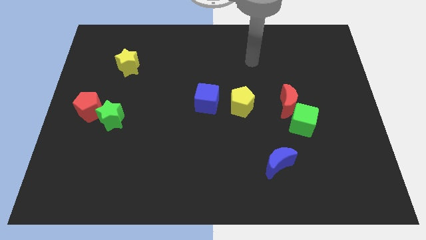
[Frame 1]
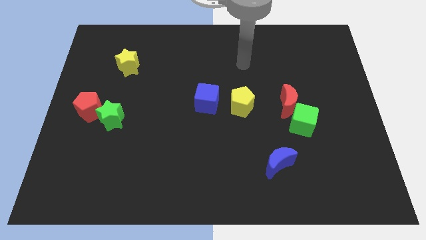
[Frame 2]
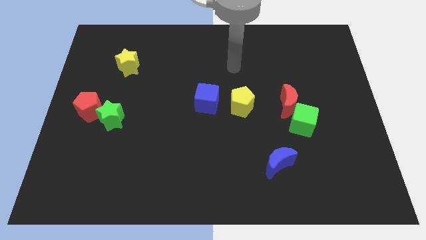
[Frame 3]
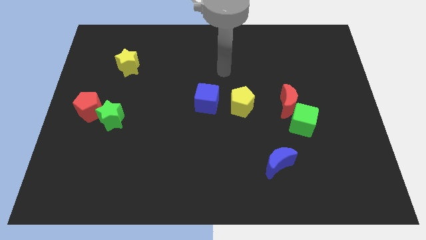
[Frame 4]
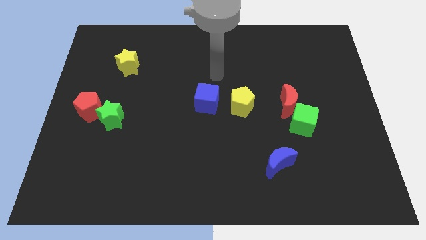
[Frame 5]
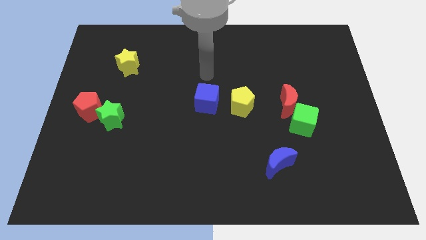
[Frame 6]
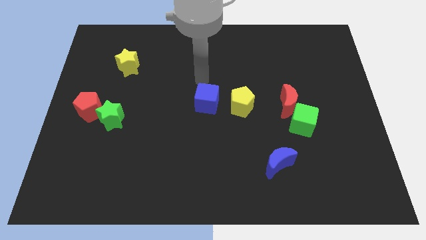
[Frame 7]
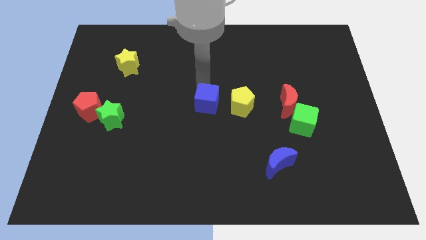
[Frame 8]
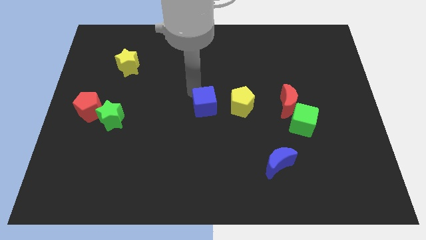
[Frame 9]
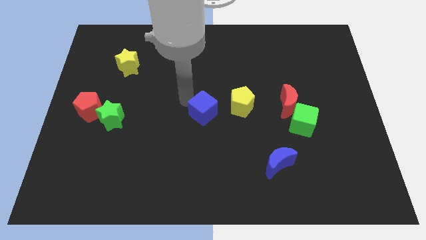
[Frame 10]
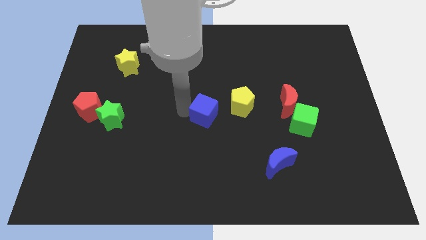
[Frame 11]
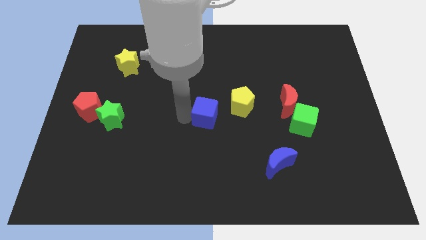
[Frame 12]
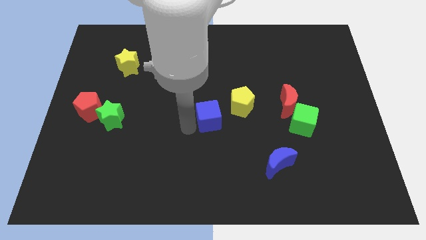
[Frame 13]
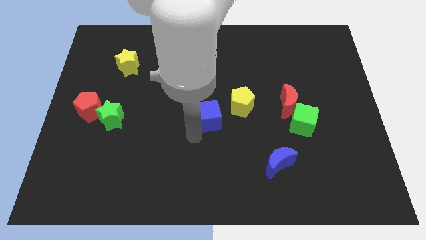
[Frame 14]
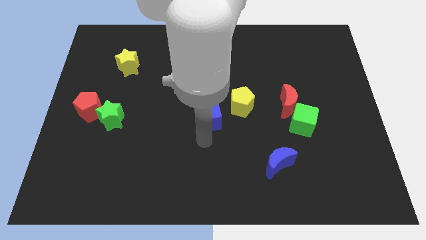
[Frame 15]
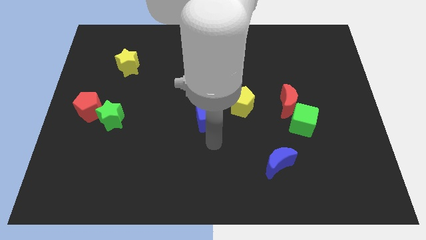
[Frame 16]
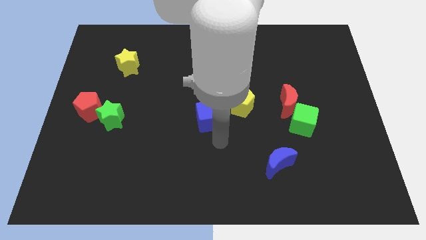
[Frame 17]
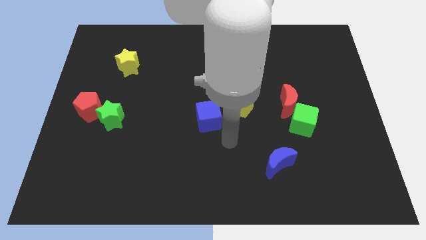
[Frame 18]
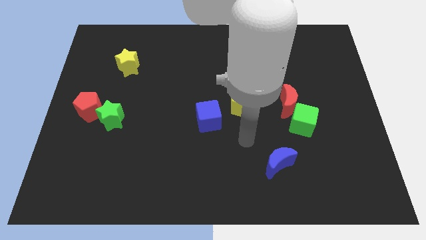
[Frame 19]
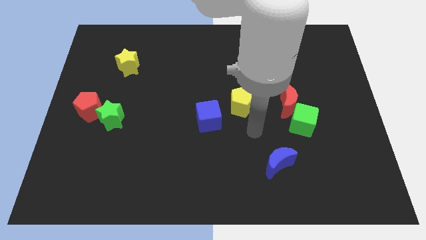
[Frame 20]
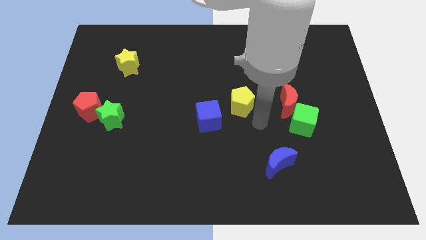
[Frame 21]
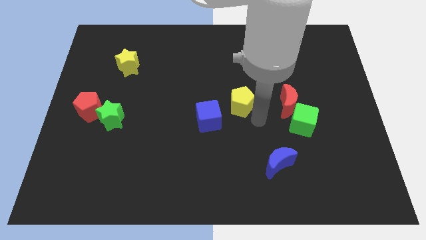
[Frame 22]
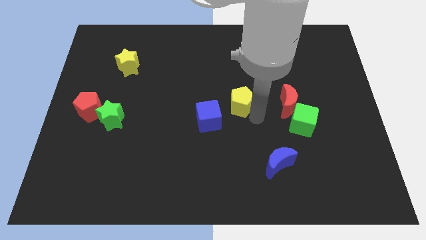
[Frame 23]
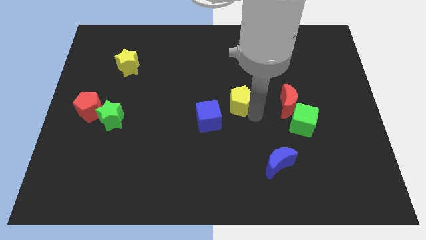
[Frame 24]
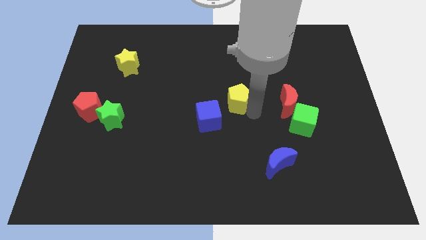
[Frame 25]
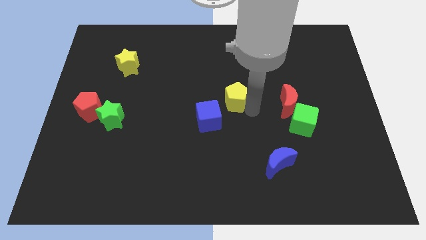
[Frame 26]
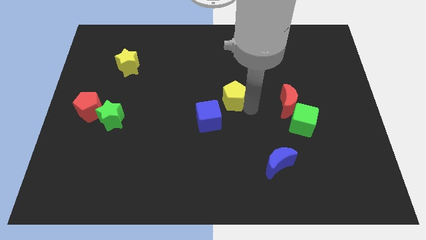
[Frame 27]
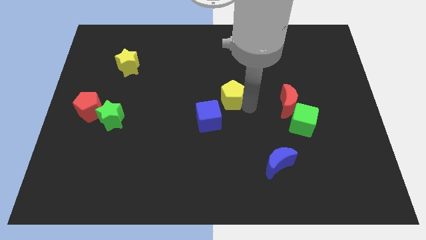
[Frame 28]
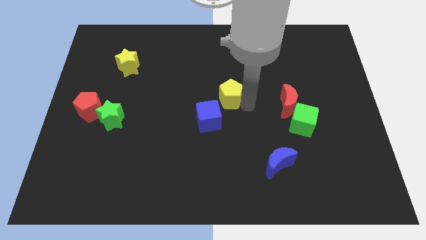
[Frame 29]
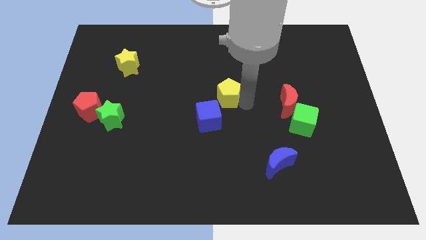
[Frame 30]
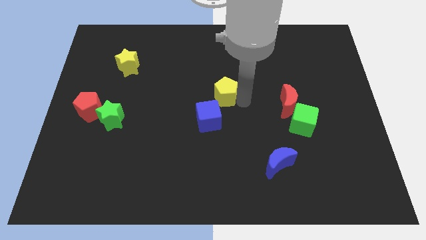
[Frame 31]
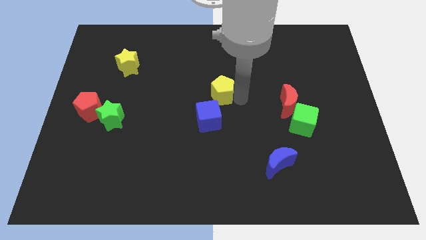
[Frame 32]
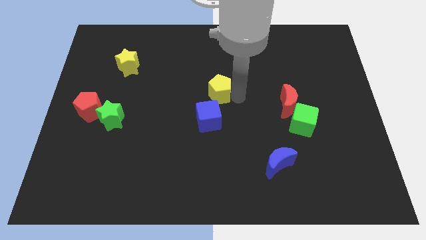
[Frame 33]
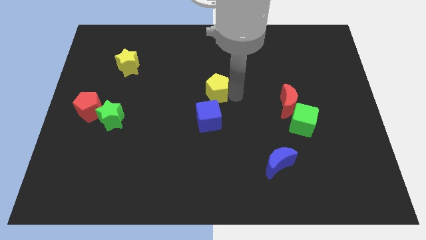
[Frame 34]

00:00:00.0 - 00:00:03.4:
slightly slide the yellow pentagon upwards and to the left diagonally

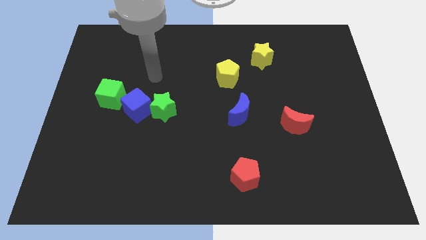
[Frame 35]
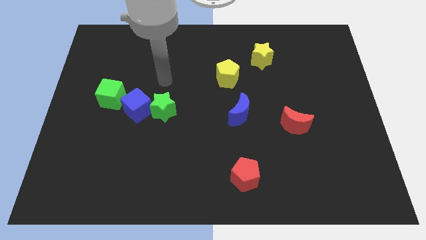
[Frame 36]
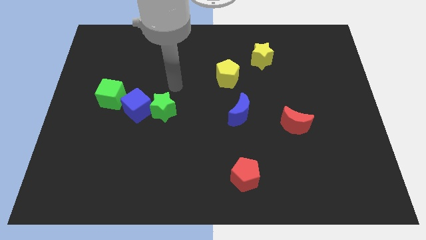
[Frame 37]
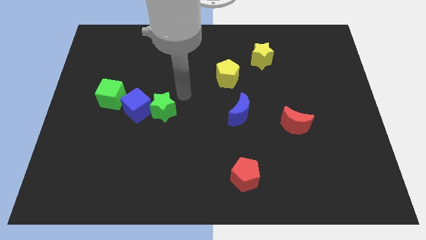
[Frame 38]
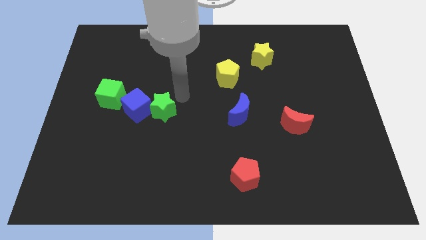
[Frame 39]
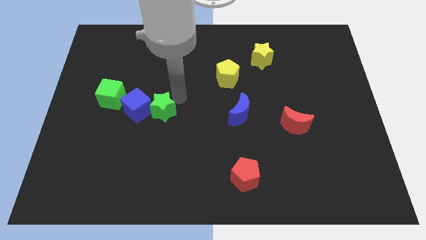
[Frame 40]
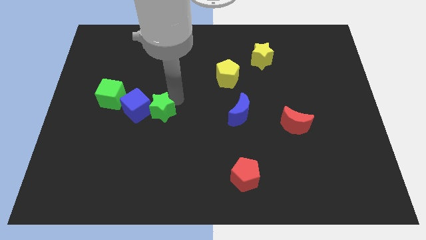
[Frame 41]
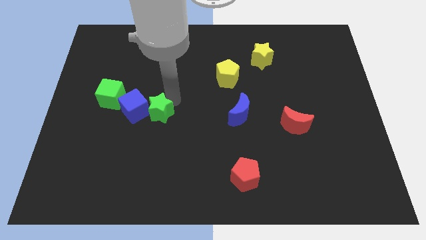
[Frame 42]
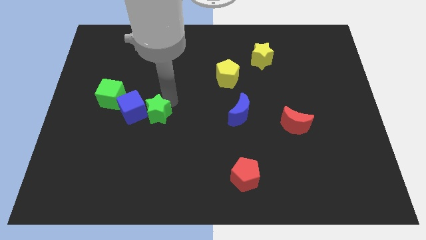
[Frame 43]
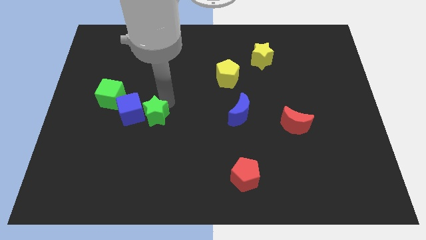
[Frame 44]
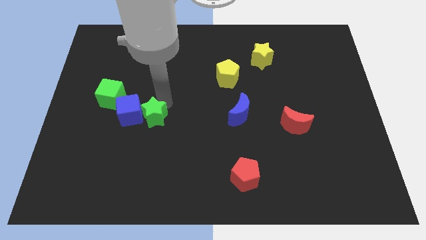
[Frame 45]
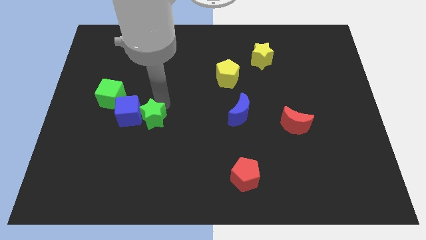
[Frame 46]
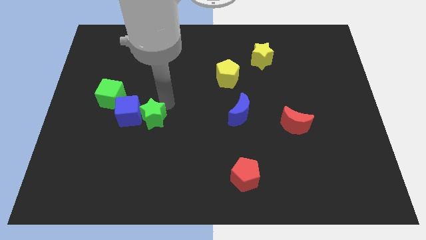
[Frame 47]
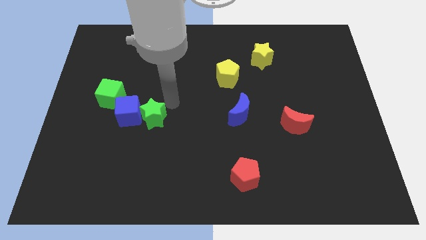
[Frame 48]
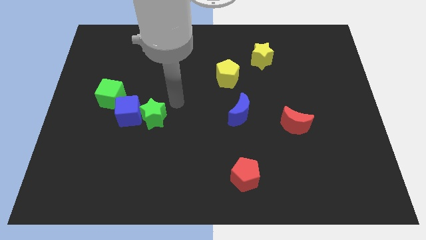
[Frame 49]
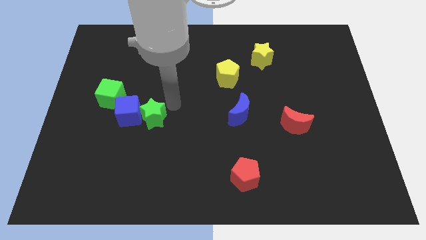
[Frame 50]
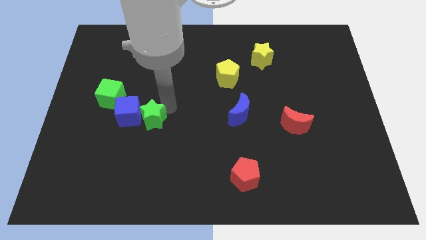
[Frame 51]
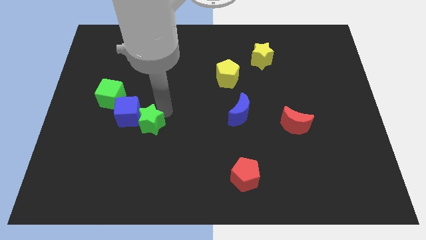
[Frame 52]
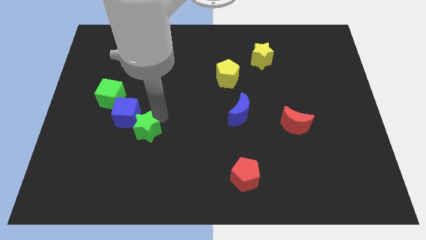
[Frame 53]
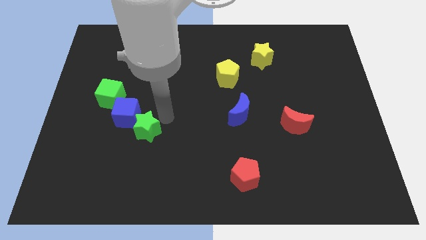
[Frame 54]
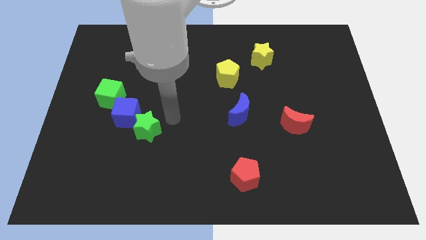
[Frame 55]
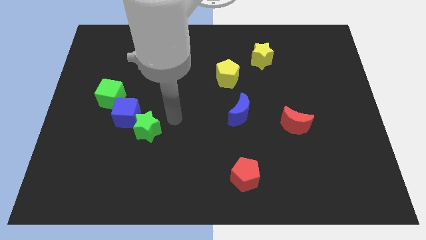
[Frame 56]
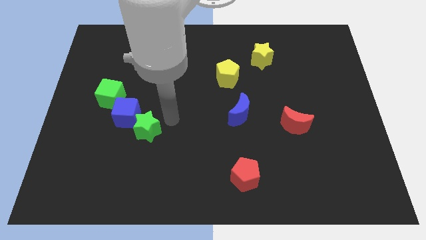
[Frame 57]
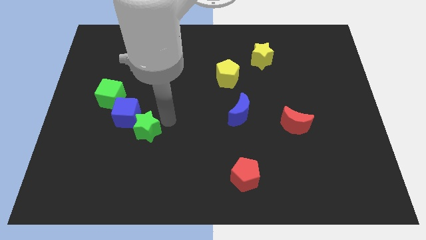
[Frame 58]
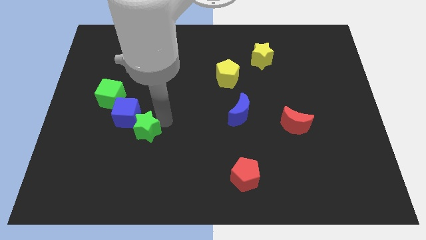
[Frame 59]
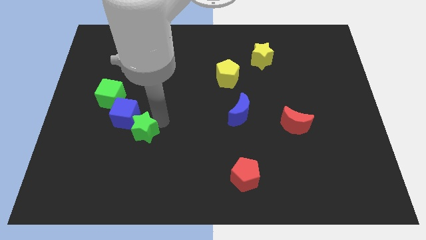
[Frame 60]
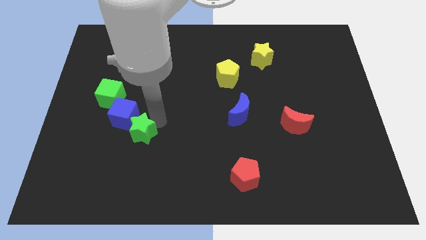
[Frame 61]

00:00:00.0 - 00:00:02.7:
push the green star a little downwards and then to the left

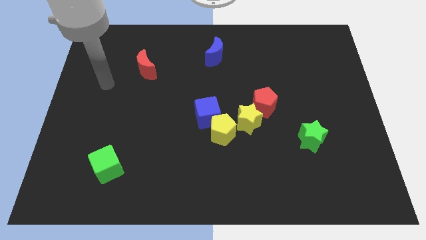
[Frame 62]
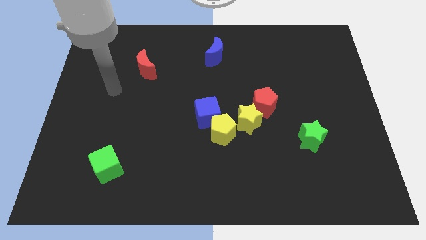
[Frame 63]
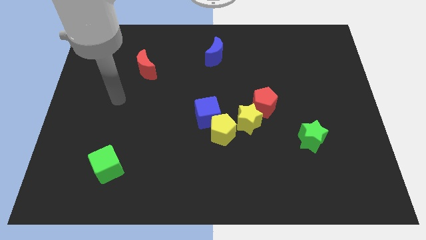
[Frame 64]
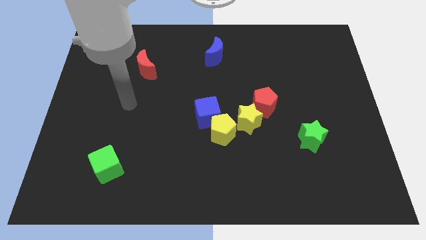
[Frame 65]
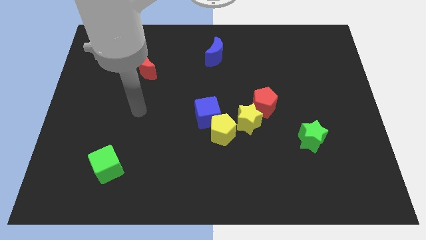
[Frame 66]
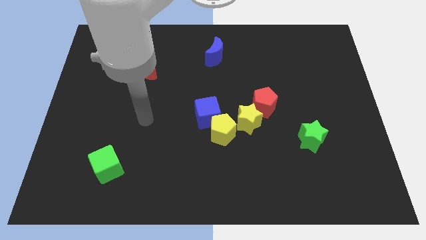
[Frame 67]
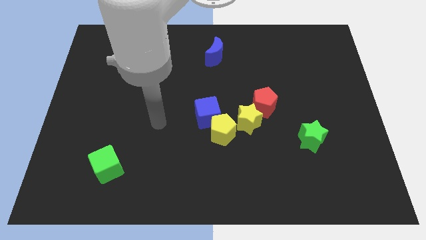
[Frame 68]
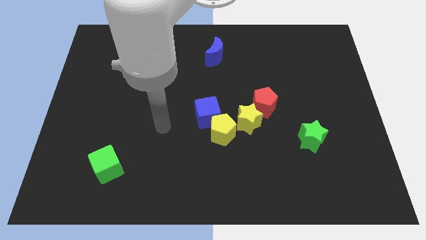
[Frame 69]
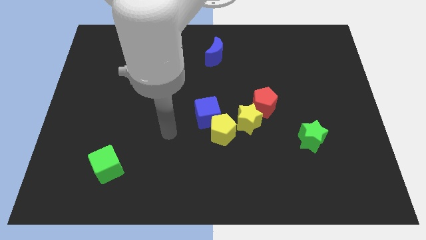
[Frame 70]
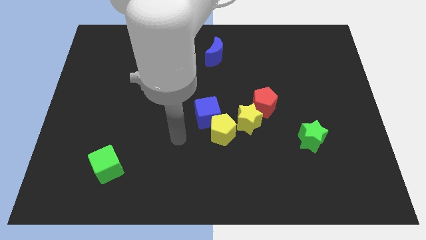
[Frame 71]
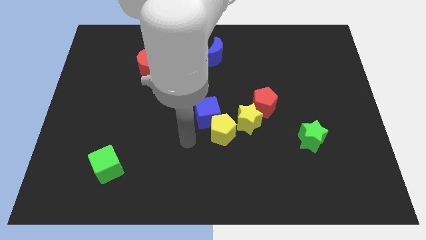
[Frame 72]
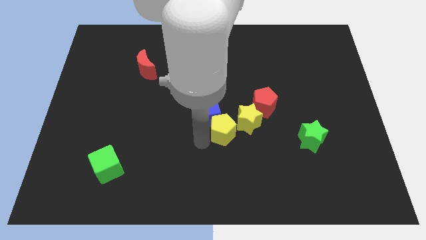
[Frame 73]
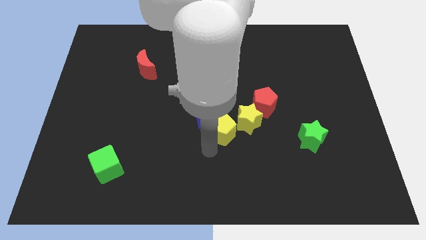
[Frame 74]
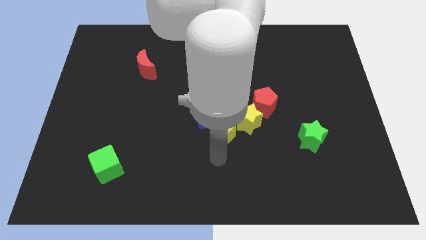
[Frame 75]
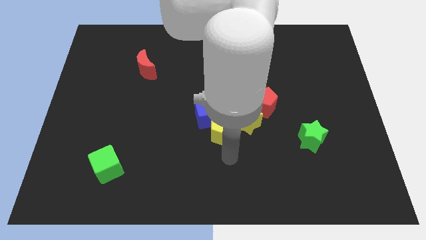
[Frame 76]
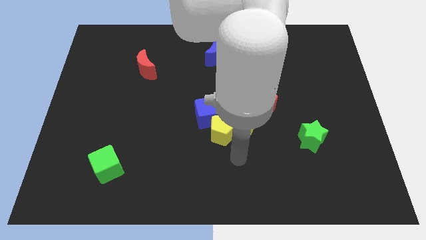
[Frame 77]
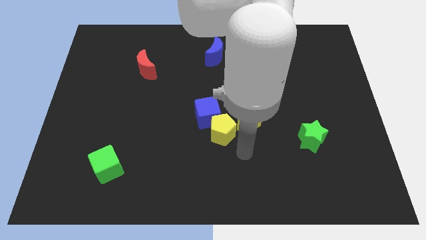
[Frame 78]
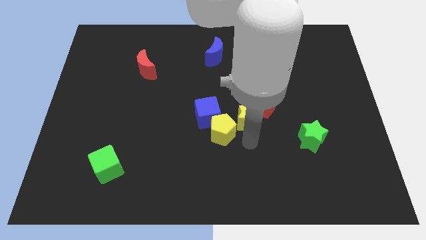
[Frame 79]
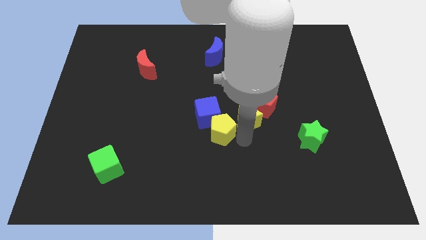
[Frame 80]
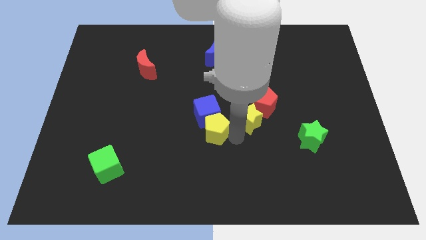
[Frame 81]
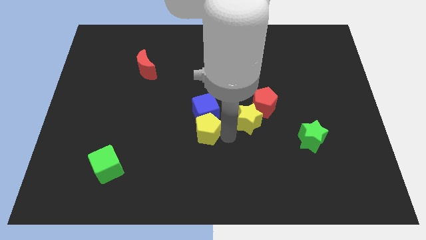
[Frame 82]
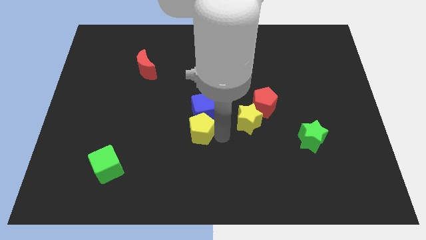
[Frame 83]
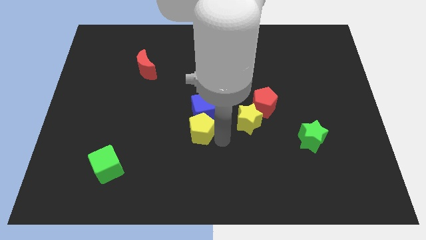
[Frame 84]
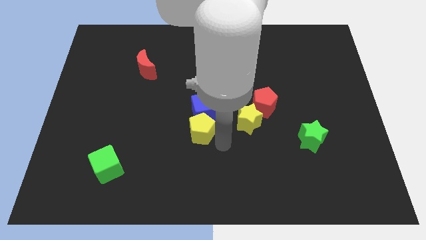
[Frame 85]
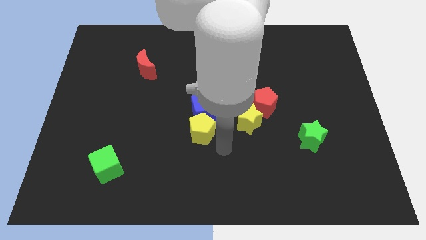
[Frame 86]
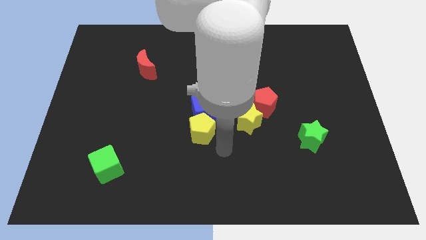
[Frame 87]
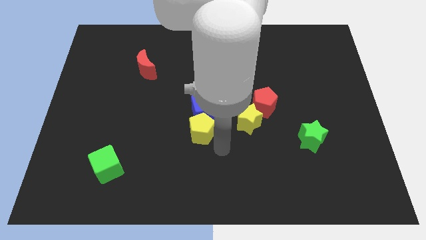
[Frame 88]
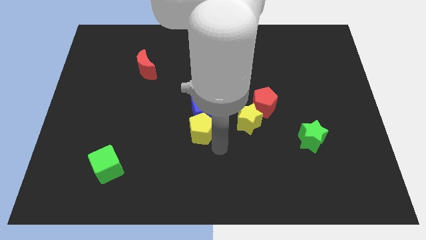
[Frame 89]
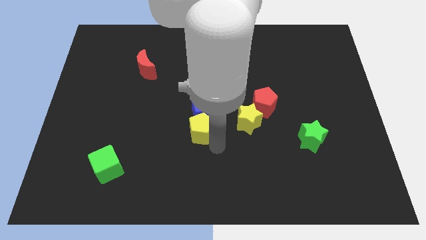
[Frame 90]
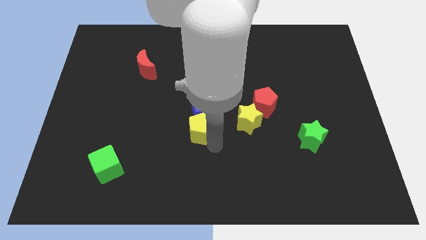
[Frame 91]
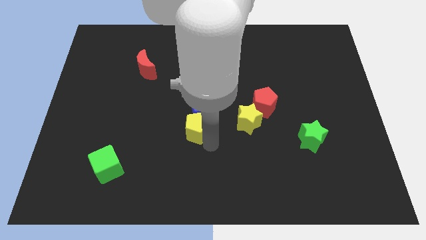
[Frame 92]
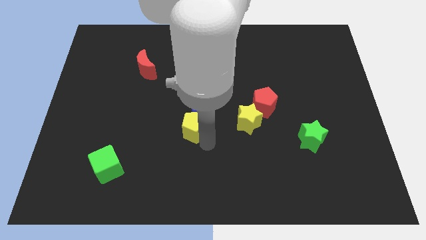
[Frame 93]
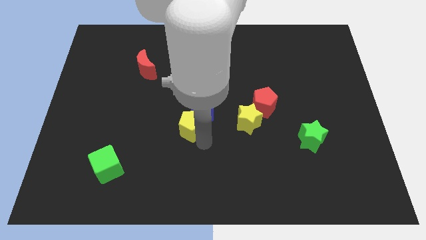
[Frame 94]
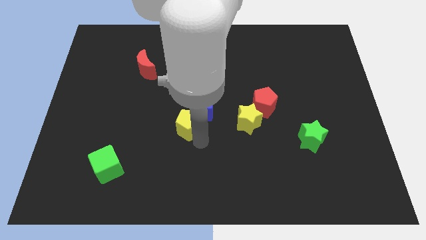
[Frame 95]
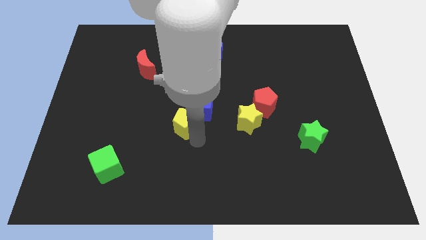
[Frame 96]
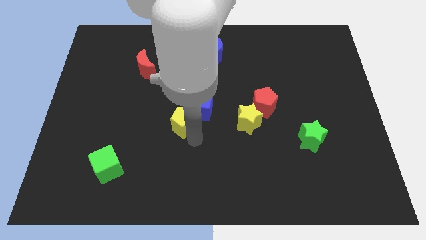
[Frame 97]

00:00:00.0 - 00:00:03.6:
slightly move the yellow pentagon upwards and left diagonally
